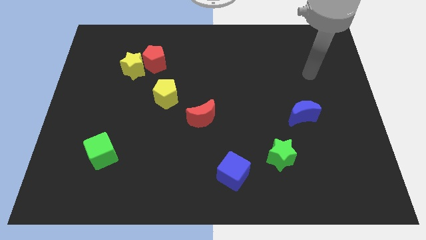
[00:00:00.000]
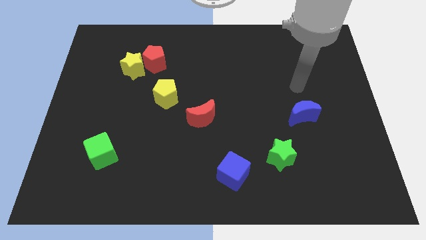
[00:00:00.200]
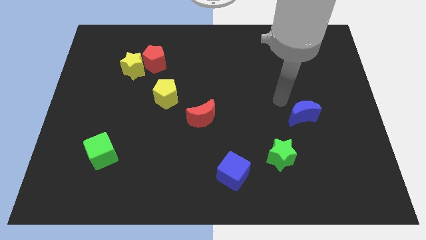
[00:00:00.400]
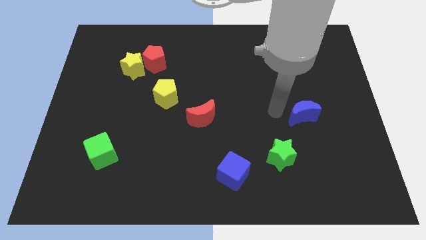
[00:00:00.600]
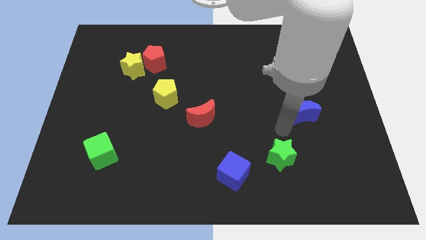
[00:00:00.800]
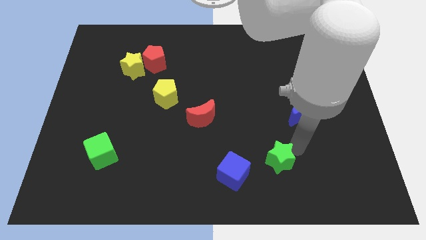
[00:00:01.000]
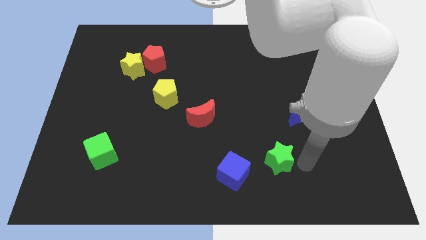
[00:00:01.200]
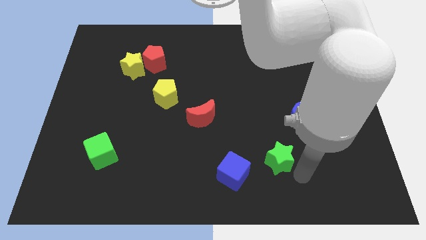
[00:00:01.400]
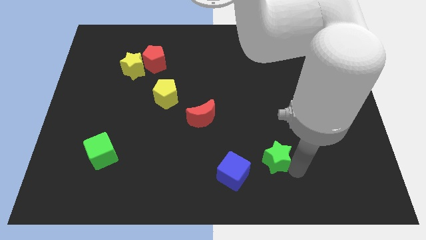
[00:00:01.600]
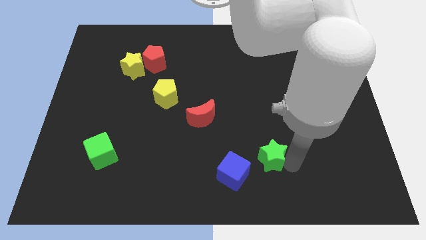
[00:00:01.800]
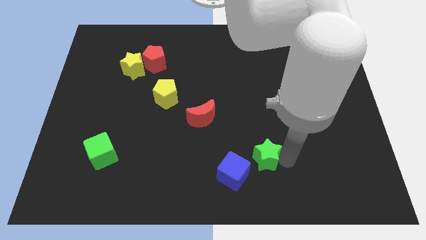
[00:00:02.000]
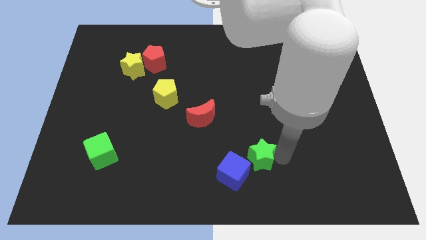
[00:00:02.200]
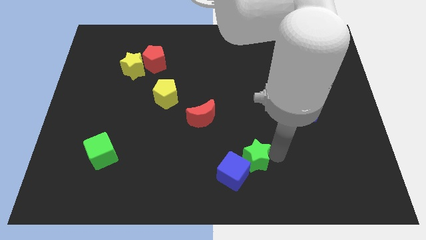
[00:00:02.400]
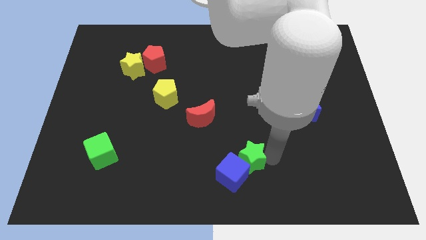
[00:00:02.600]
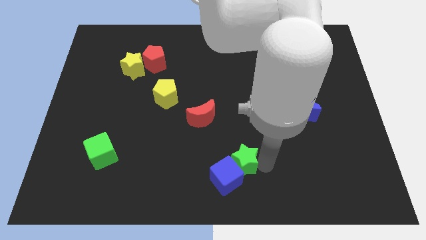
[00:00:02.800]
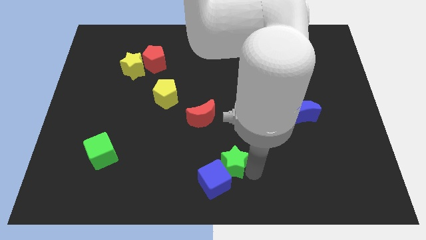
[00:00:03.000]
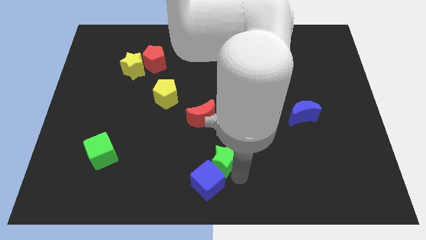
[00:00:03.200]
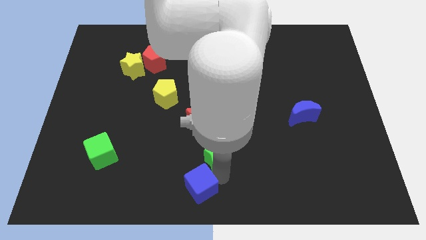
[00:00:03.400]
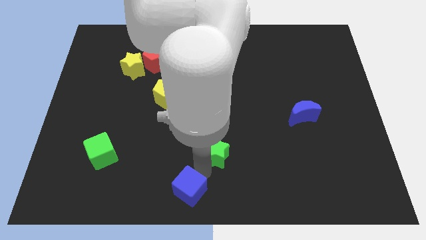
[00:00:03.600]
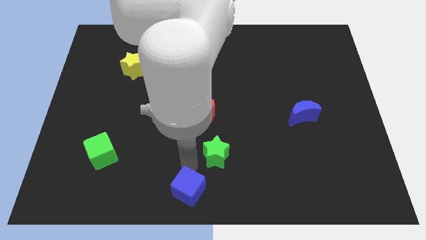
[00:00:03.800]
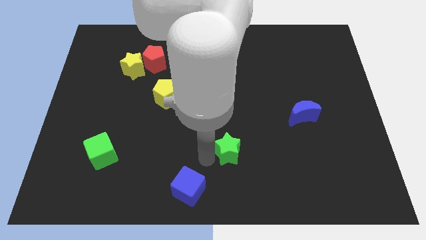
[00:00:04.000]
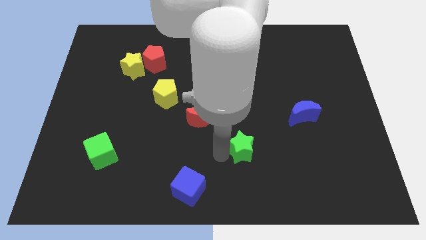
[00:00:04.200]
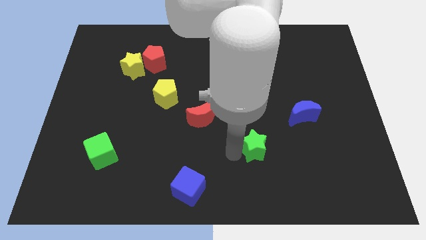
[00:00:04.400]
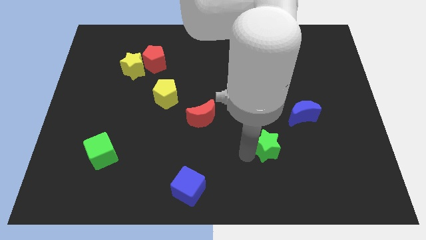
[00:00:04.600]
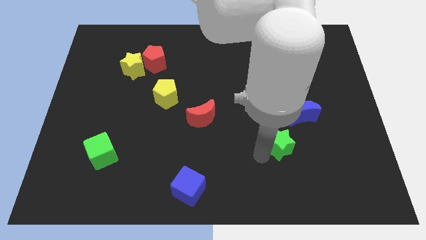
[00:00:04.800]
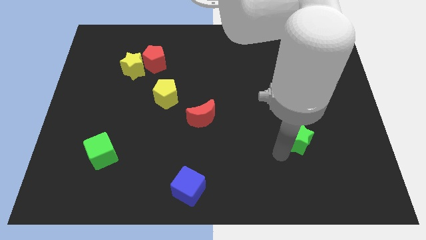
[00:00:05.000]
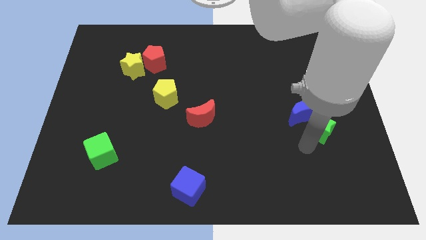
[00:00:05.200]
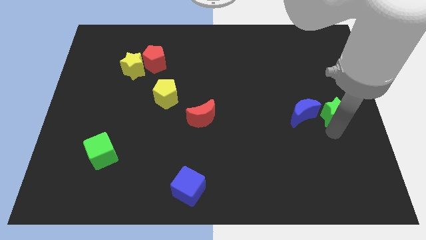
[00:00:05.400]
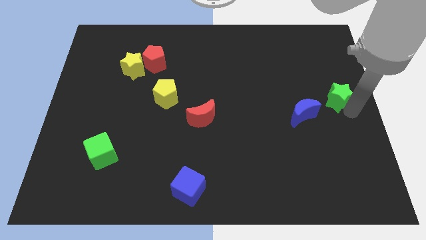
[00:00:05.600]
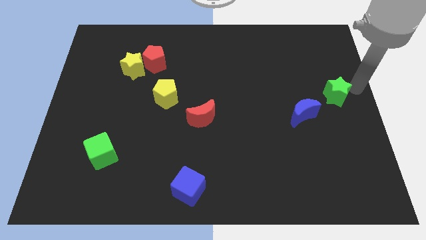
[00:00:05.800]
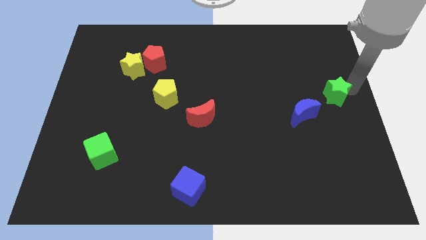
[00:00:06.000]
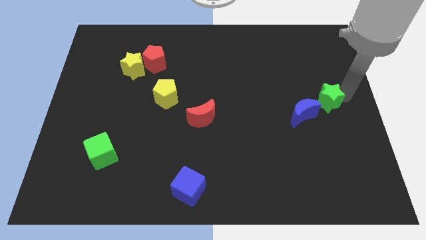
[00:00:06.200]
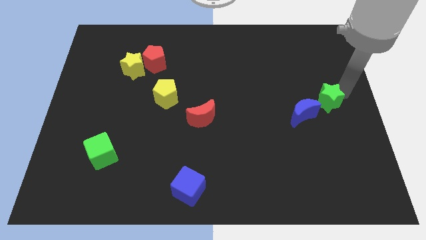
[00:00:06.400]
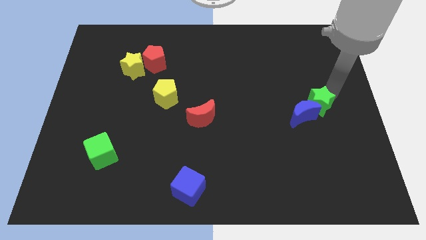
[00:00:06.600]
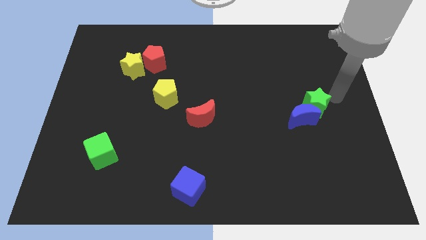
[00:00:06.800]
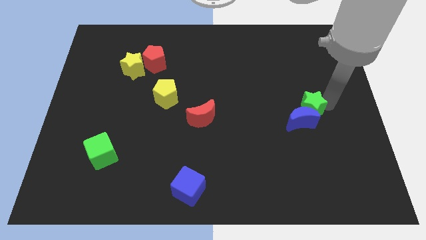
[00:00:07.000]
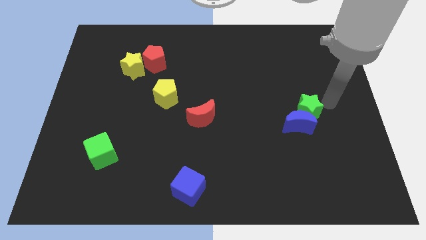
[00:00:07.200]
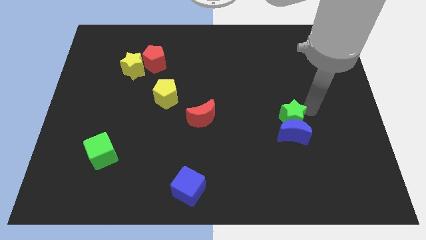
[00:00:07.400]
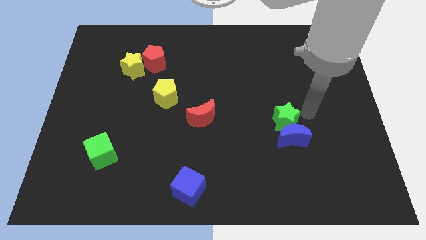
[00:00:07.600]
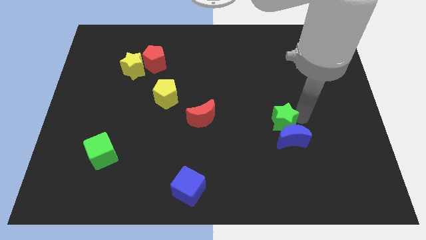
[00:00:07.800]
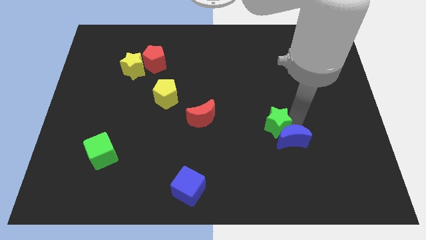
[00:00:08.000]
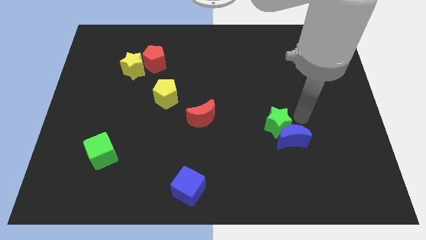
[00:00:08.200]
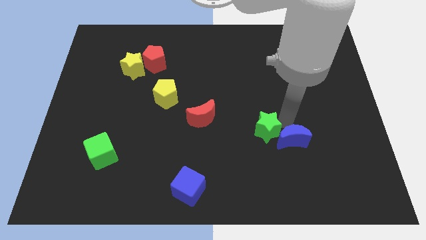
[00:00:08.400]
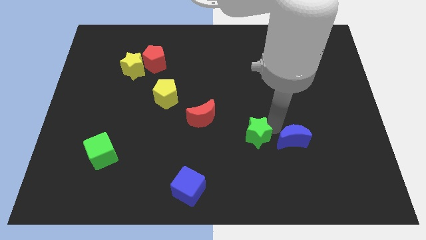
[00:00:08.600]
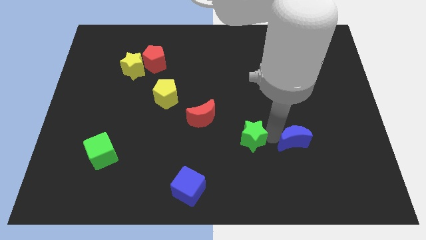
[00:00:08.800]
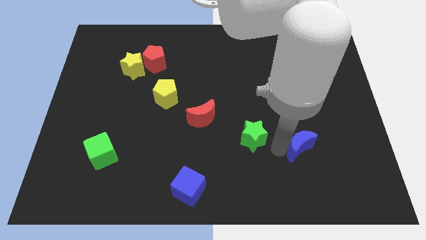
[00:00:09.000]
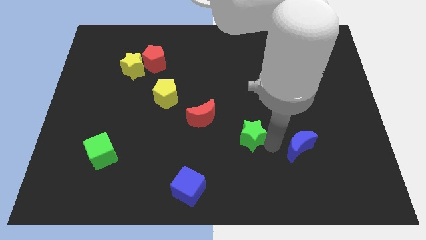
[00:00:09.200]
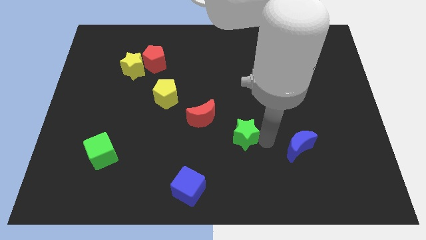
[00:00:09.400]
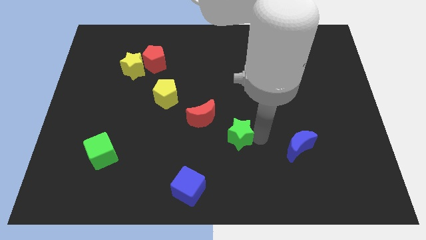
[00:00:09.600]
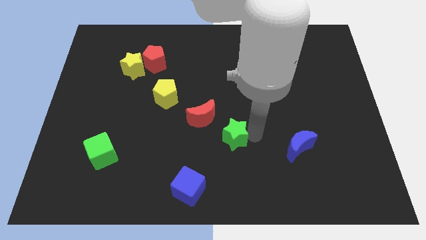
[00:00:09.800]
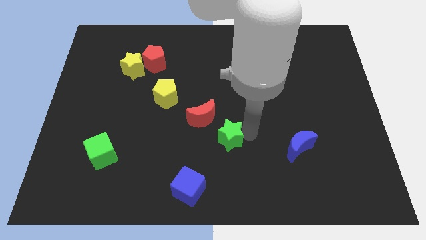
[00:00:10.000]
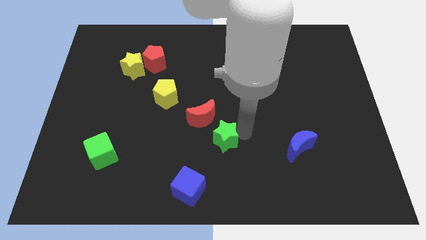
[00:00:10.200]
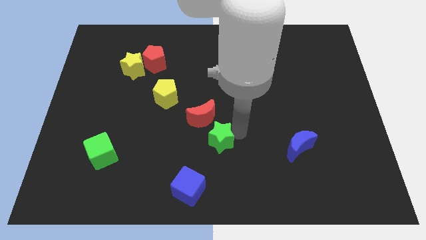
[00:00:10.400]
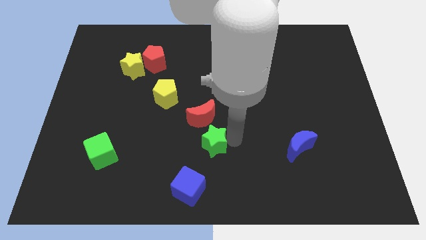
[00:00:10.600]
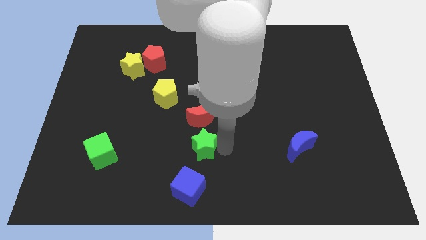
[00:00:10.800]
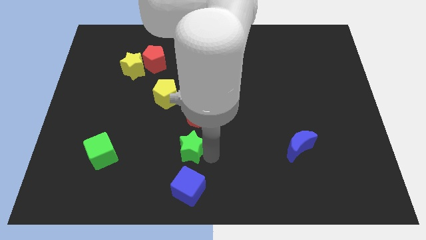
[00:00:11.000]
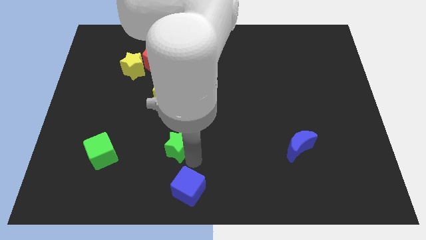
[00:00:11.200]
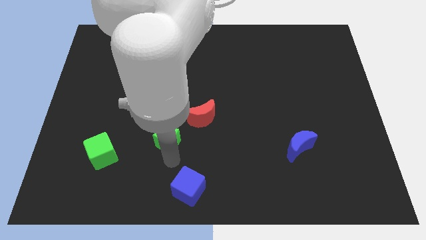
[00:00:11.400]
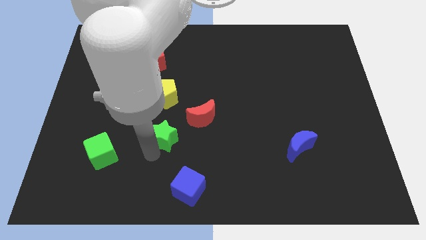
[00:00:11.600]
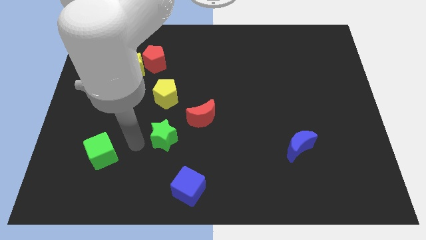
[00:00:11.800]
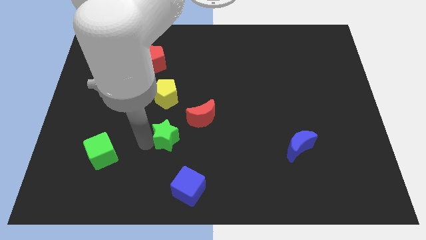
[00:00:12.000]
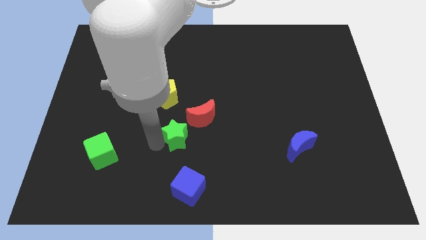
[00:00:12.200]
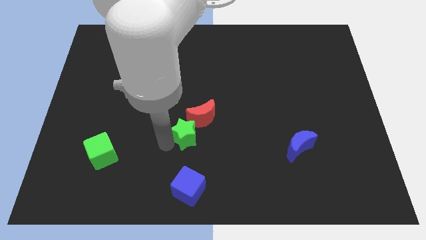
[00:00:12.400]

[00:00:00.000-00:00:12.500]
slide the green star to the red moon

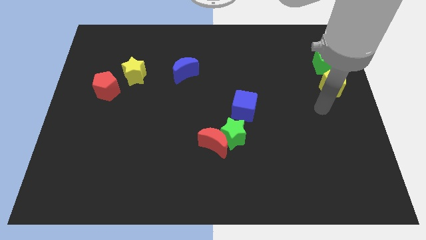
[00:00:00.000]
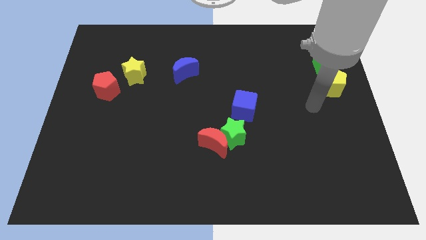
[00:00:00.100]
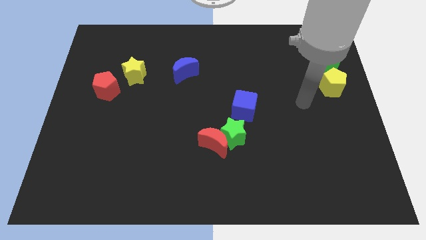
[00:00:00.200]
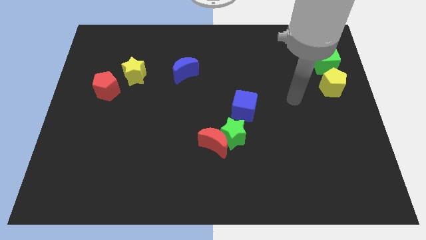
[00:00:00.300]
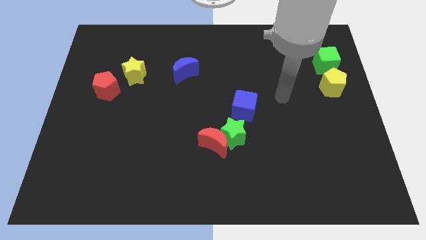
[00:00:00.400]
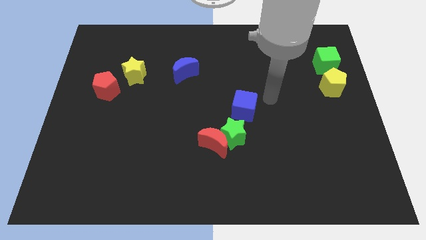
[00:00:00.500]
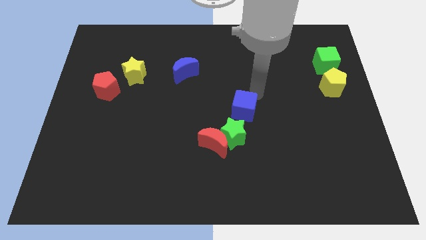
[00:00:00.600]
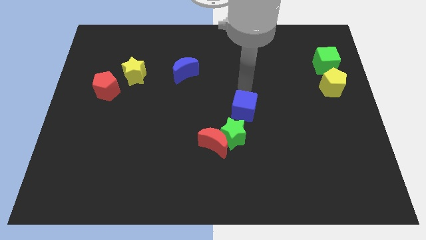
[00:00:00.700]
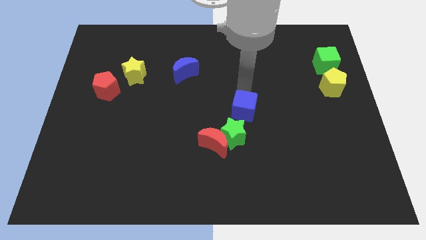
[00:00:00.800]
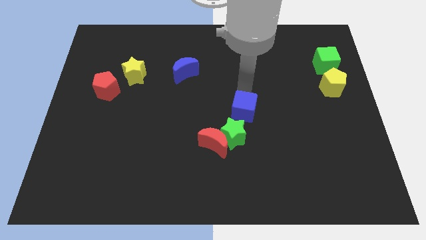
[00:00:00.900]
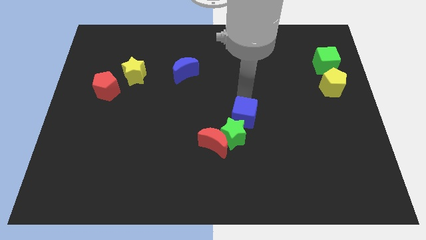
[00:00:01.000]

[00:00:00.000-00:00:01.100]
put the blue cube towards the green star
